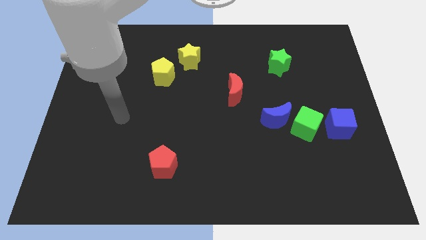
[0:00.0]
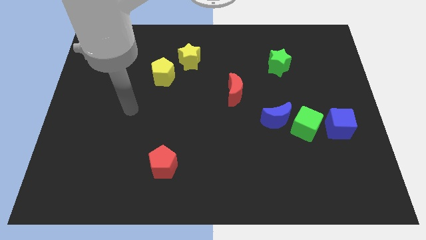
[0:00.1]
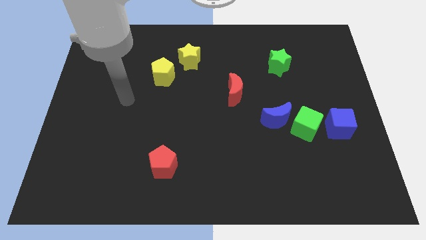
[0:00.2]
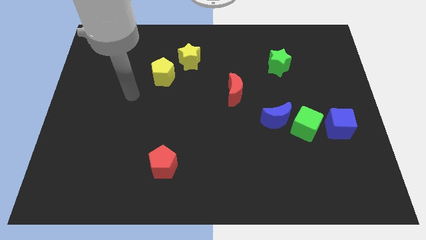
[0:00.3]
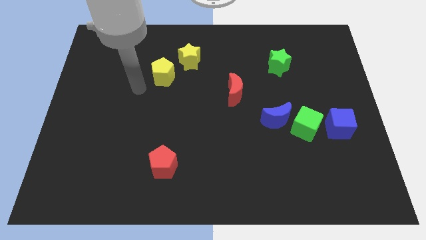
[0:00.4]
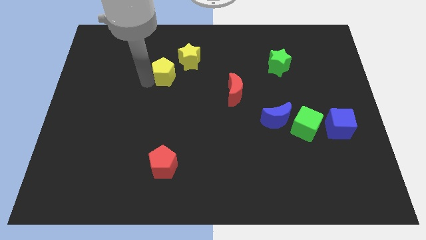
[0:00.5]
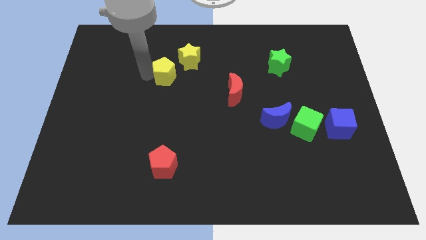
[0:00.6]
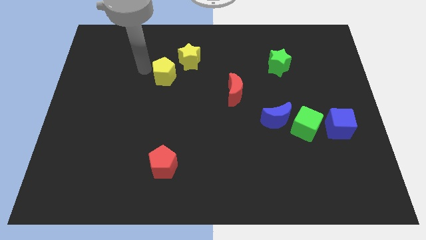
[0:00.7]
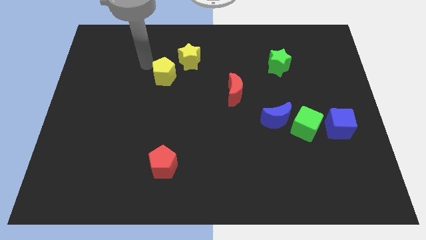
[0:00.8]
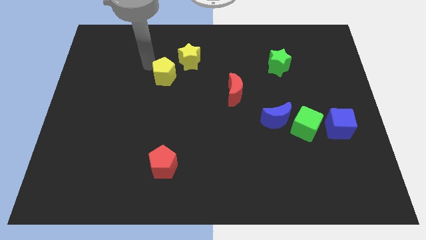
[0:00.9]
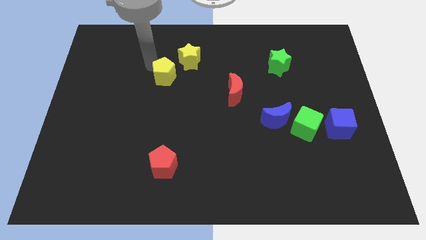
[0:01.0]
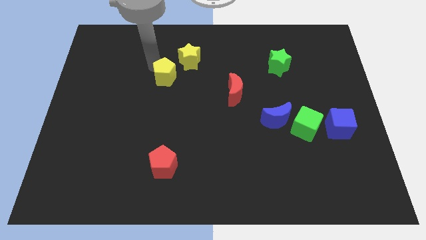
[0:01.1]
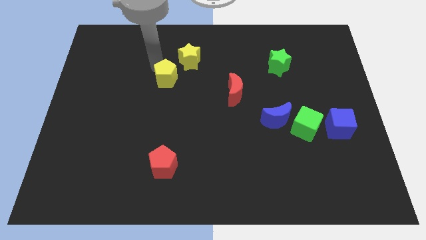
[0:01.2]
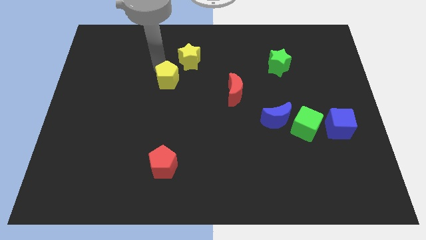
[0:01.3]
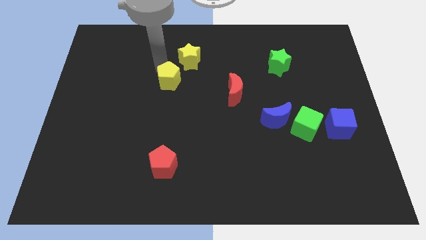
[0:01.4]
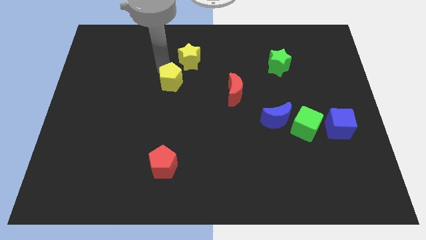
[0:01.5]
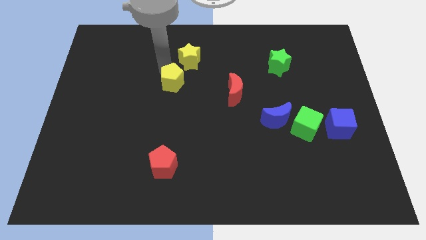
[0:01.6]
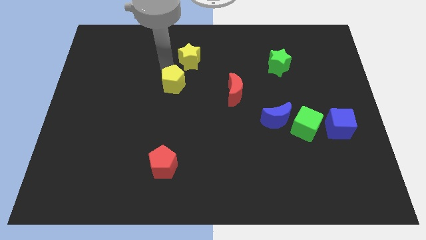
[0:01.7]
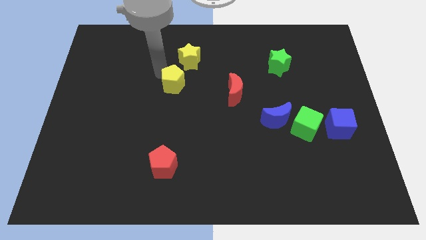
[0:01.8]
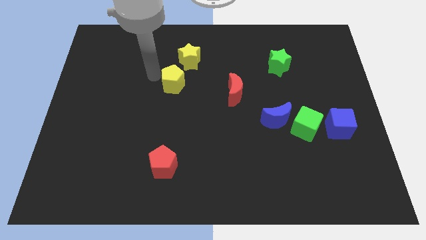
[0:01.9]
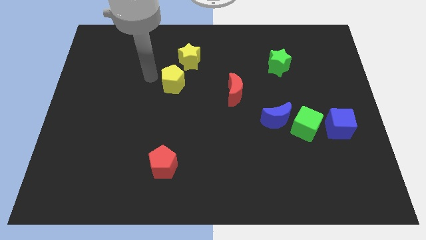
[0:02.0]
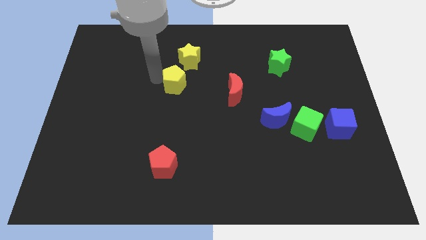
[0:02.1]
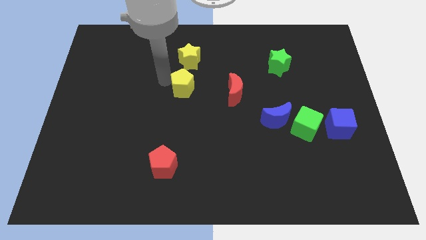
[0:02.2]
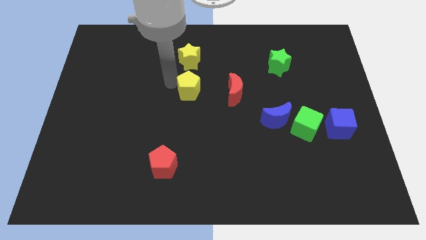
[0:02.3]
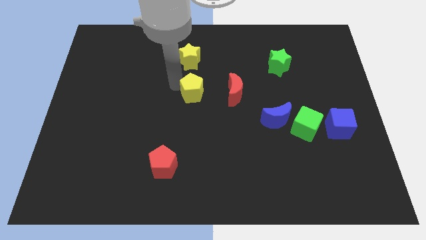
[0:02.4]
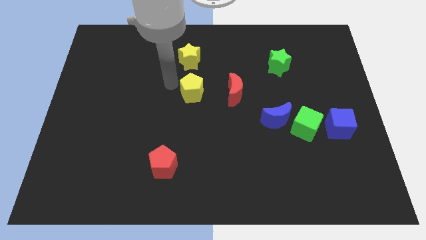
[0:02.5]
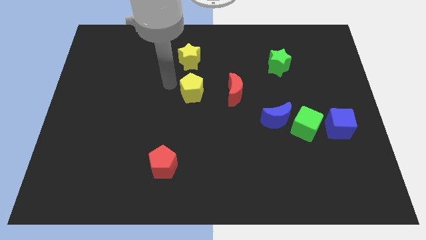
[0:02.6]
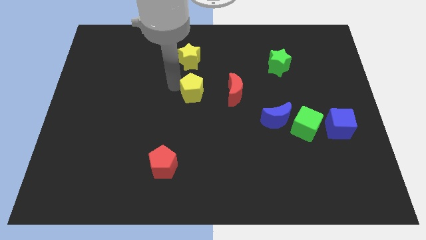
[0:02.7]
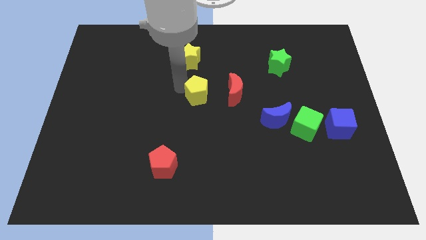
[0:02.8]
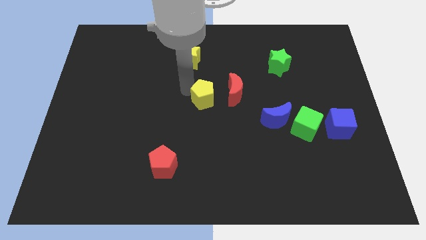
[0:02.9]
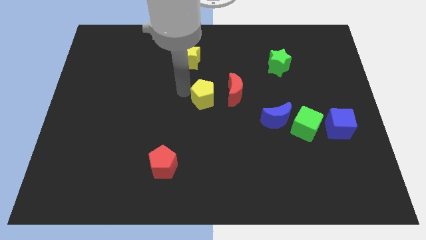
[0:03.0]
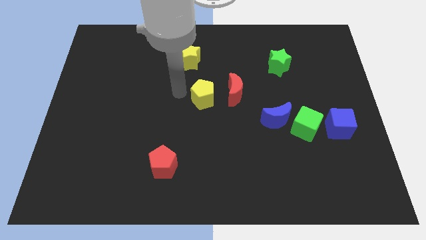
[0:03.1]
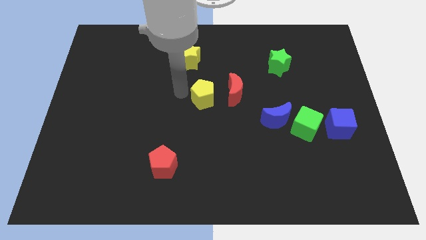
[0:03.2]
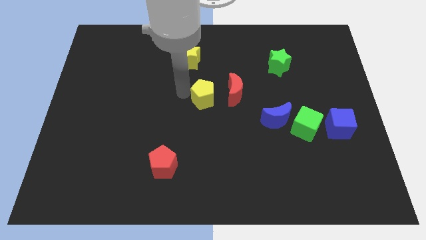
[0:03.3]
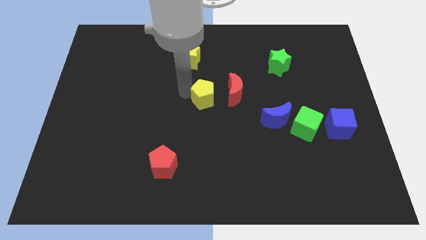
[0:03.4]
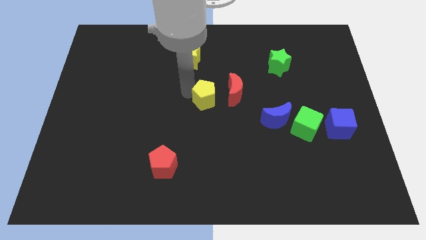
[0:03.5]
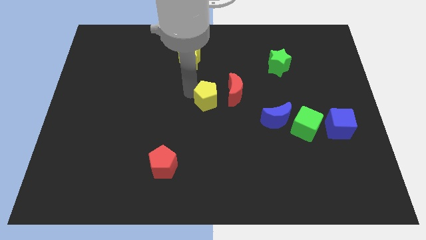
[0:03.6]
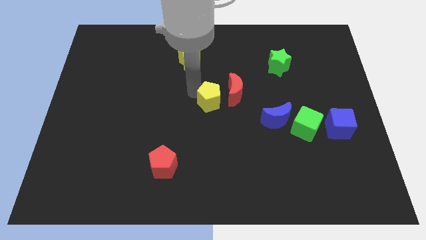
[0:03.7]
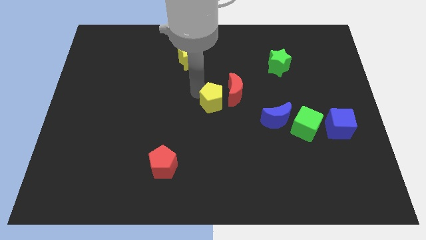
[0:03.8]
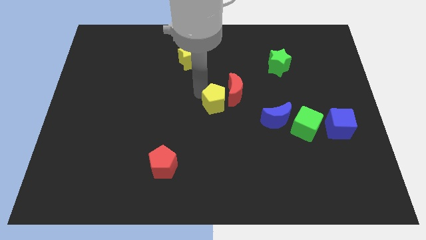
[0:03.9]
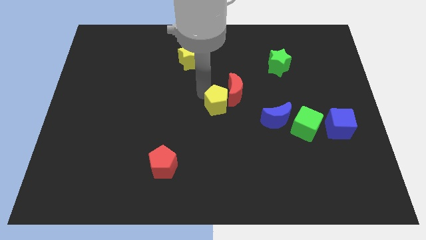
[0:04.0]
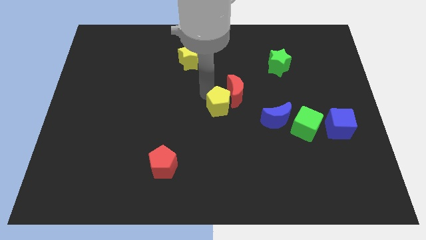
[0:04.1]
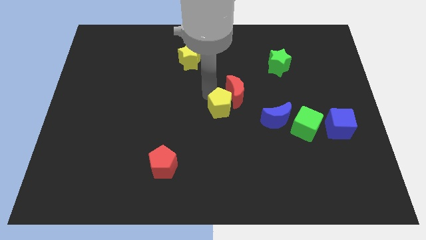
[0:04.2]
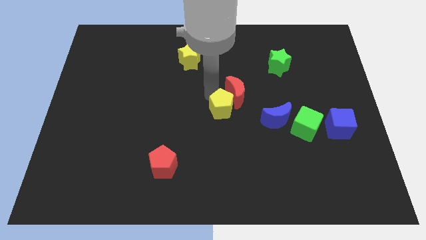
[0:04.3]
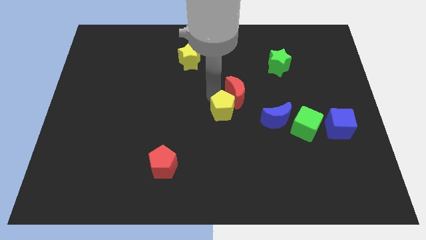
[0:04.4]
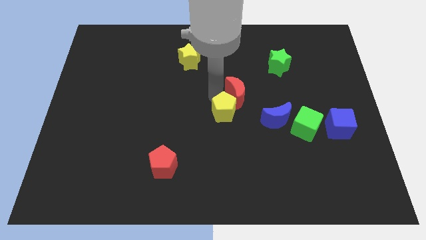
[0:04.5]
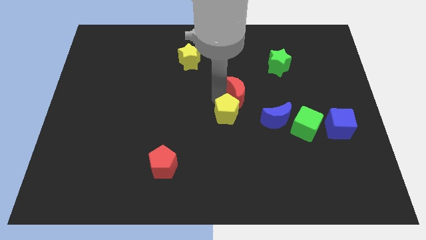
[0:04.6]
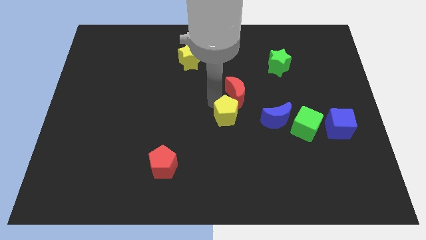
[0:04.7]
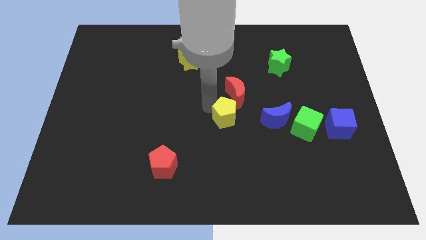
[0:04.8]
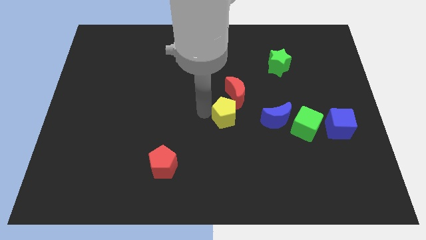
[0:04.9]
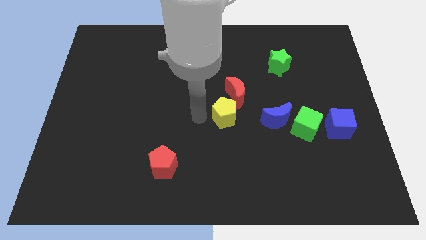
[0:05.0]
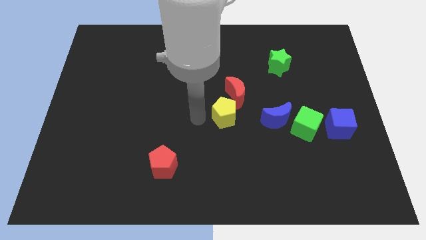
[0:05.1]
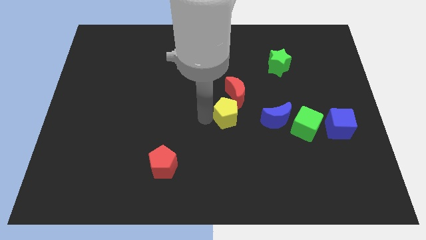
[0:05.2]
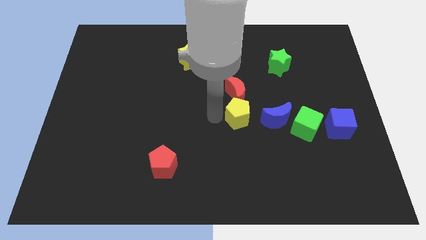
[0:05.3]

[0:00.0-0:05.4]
move the yellow pentagon to the bottom right of the red moon

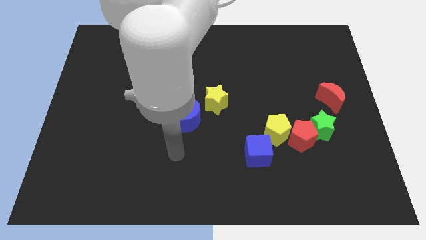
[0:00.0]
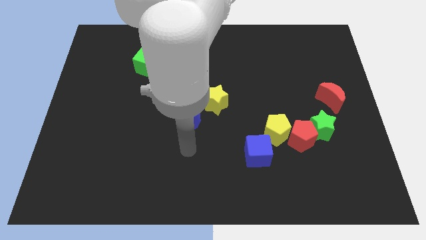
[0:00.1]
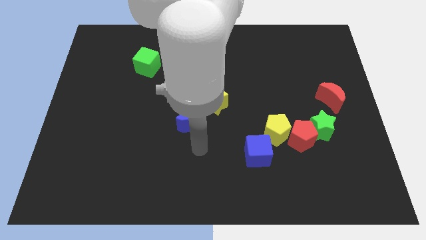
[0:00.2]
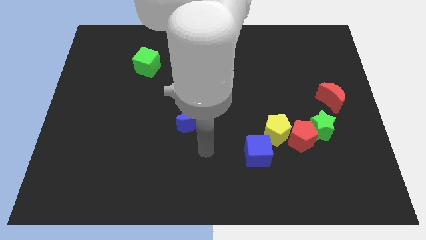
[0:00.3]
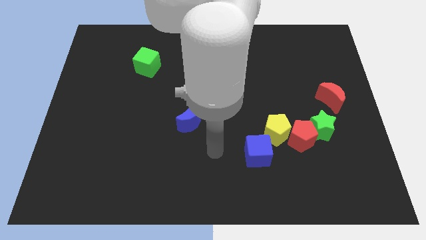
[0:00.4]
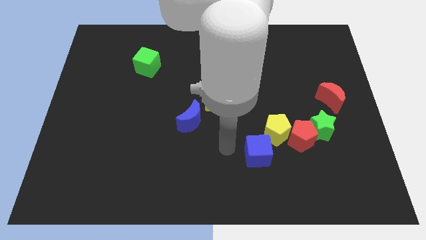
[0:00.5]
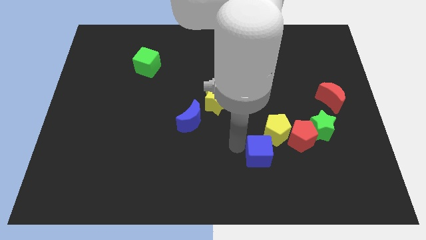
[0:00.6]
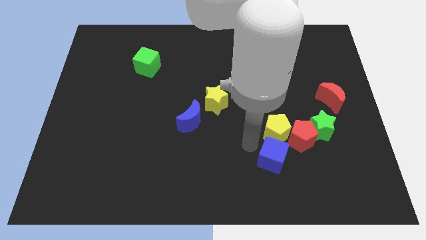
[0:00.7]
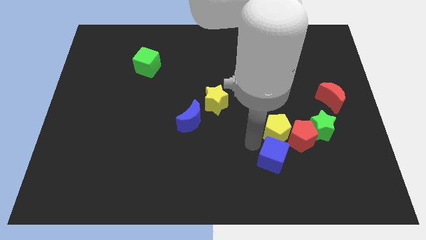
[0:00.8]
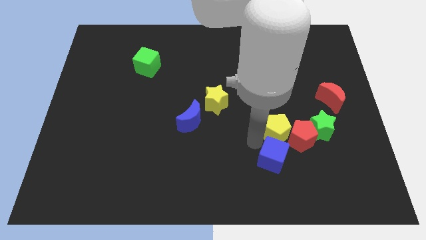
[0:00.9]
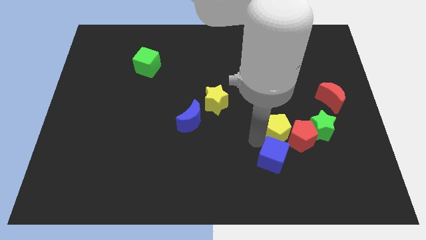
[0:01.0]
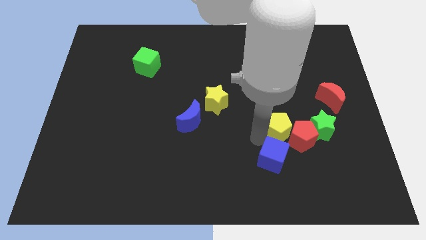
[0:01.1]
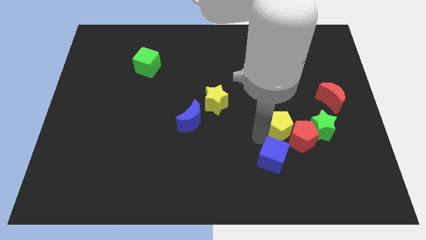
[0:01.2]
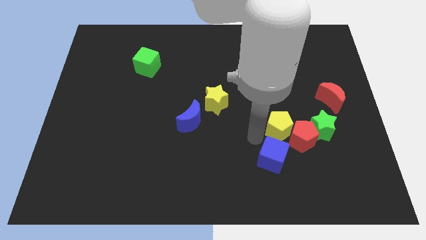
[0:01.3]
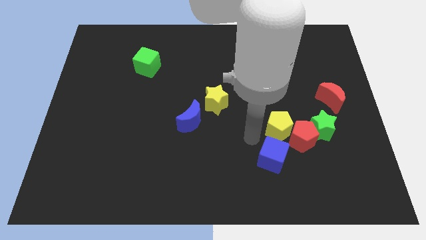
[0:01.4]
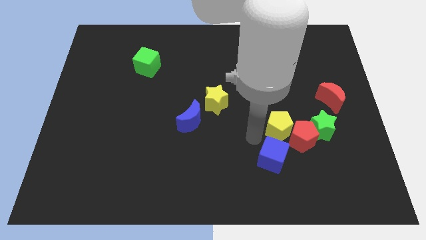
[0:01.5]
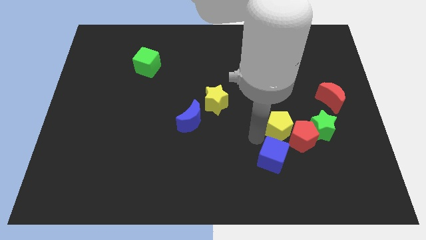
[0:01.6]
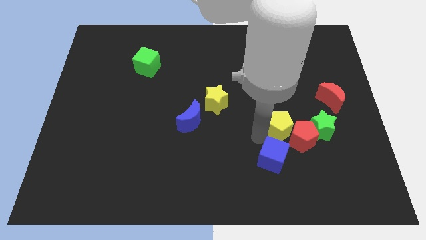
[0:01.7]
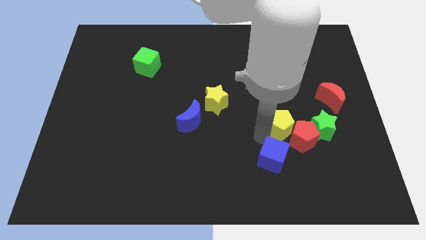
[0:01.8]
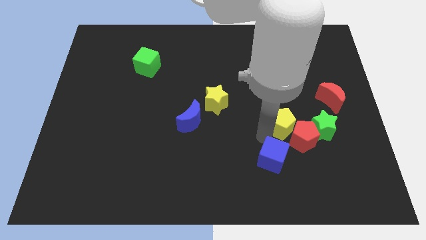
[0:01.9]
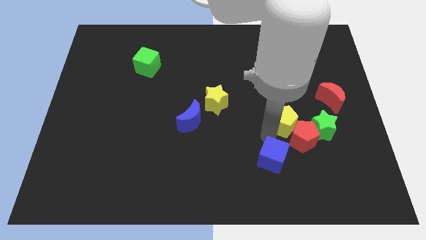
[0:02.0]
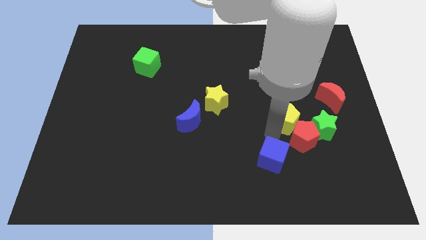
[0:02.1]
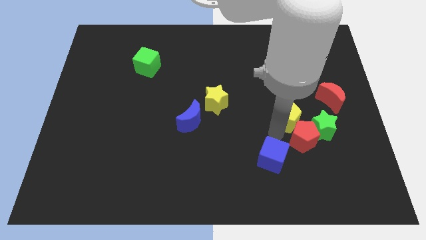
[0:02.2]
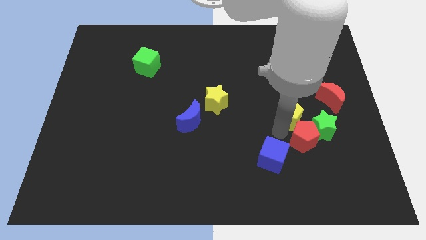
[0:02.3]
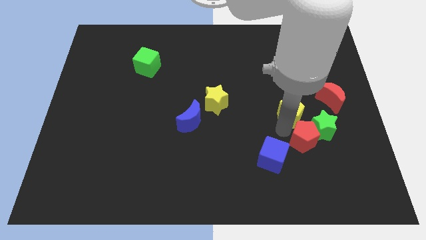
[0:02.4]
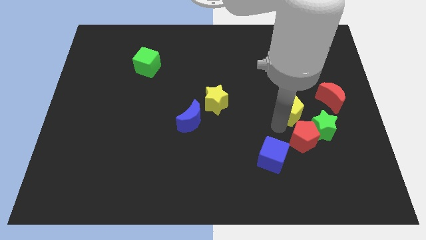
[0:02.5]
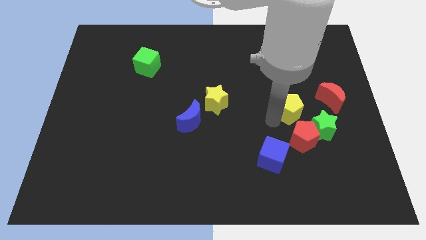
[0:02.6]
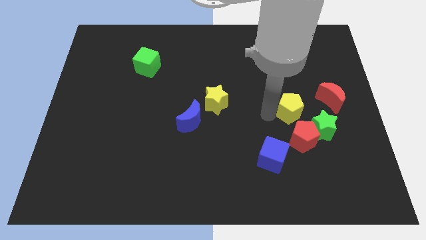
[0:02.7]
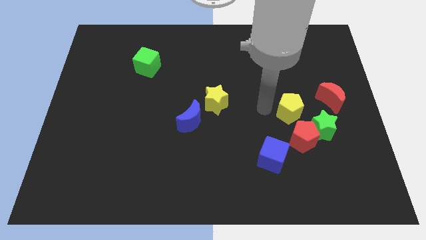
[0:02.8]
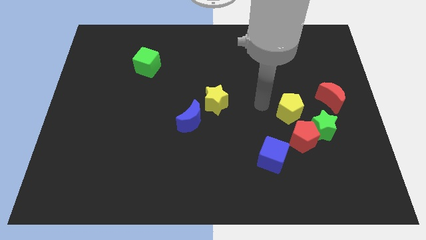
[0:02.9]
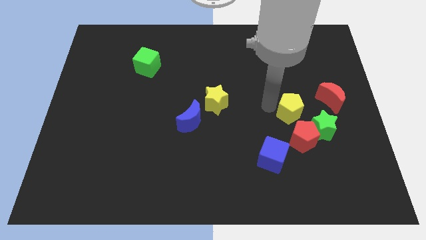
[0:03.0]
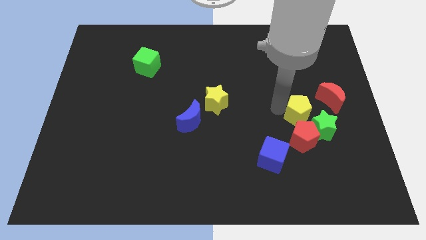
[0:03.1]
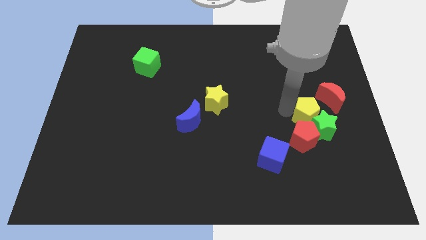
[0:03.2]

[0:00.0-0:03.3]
move the yellow pentagon to the top right side of the red pentagon
